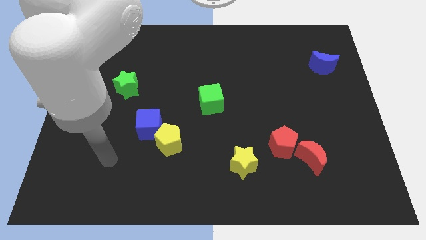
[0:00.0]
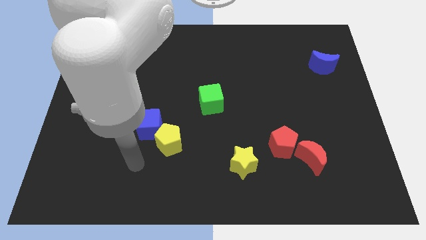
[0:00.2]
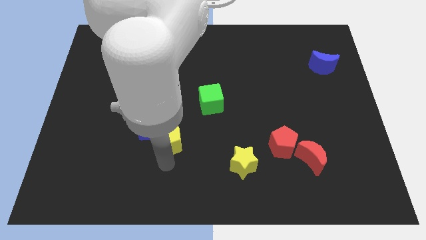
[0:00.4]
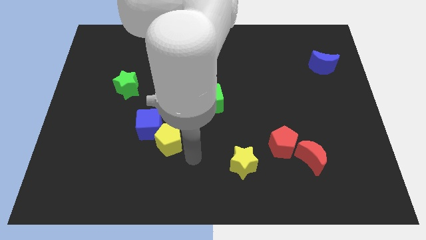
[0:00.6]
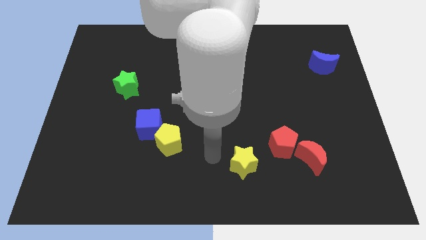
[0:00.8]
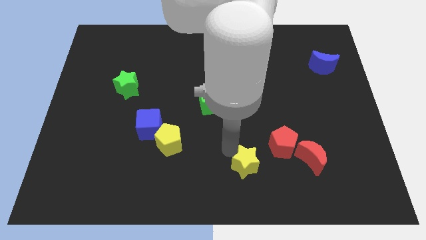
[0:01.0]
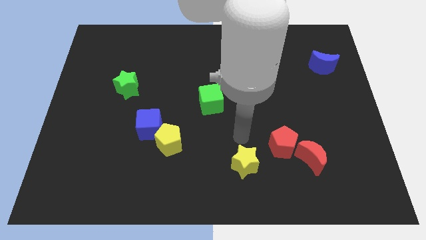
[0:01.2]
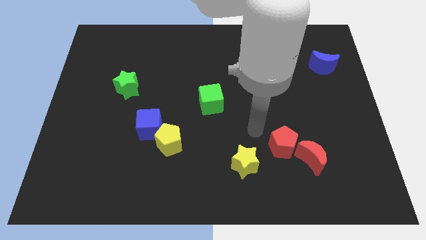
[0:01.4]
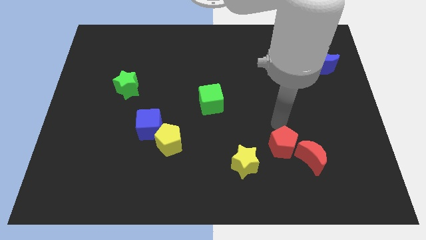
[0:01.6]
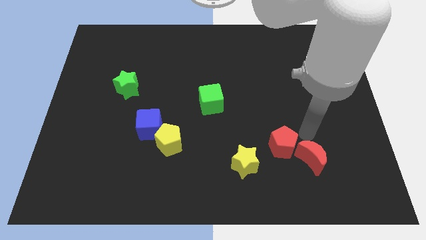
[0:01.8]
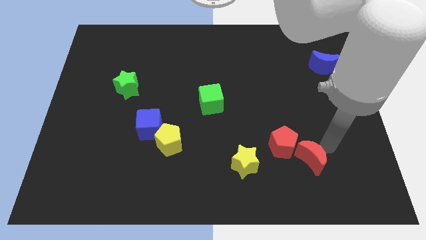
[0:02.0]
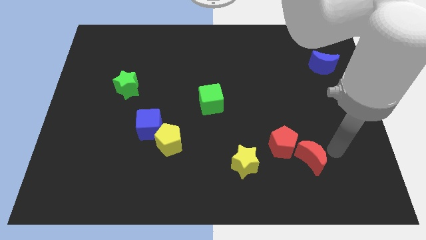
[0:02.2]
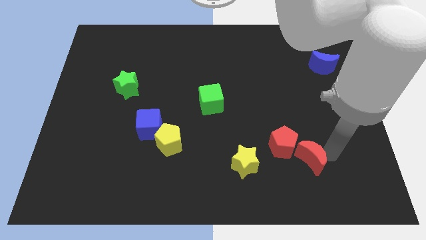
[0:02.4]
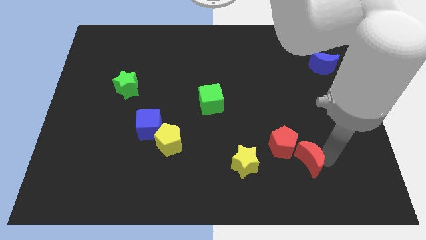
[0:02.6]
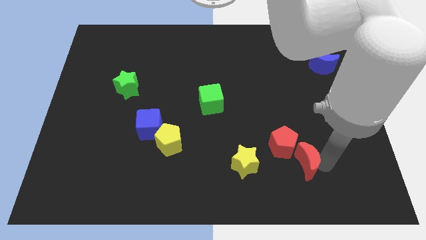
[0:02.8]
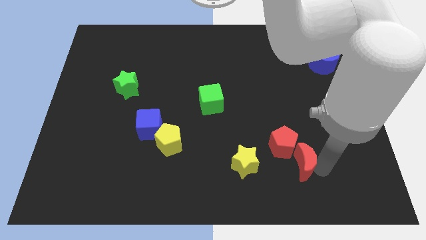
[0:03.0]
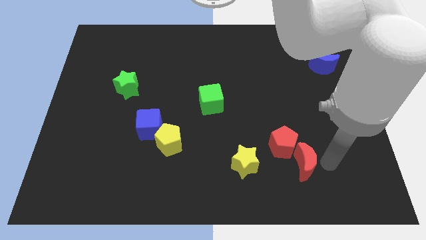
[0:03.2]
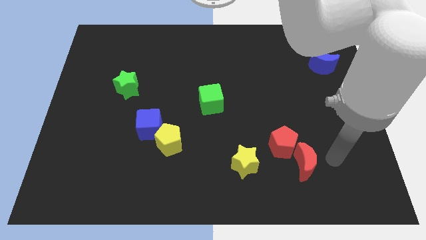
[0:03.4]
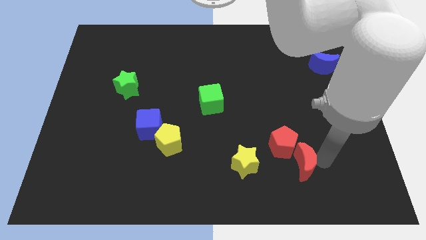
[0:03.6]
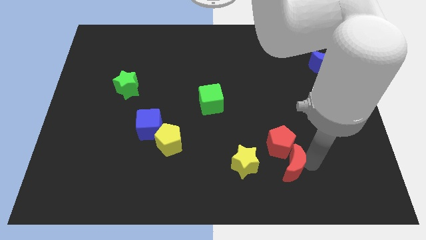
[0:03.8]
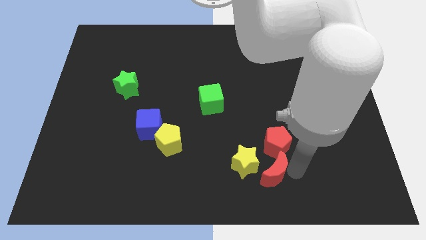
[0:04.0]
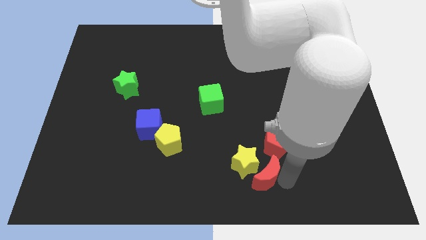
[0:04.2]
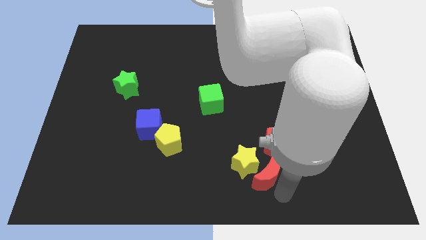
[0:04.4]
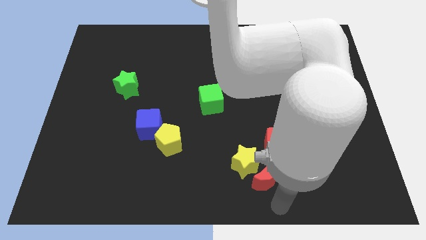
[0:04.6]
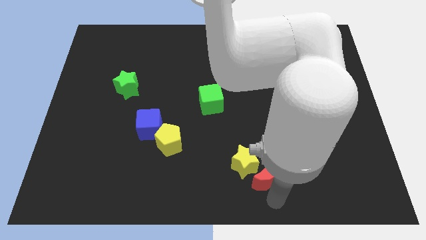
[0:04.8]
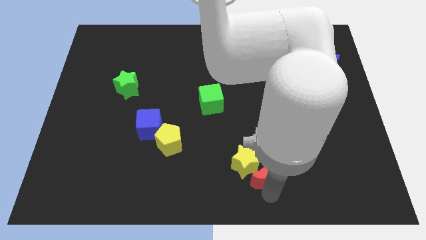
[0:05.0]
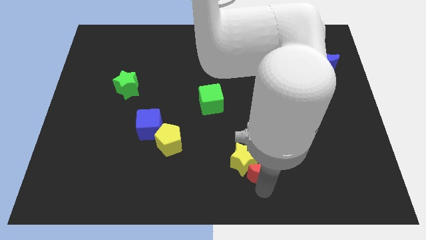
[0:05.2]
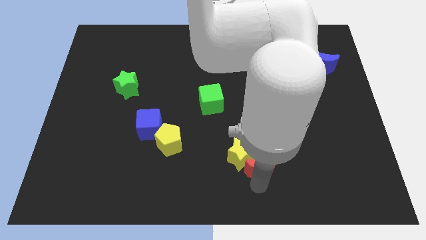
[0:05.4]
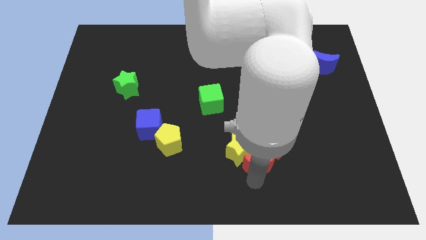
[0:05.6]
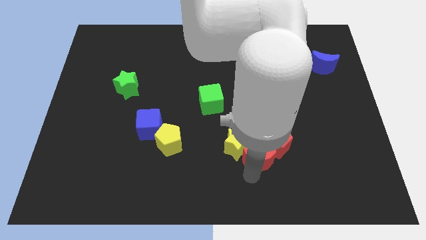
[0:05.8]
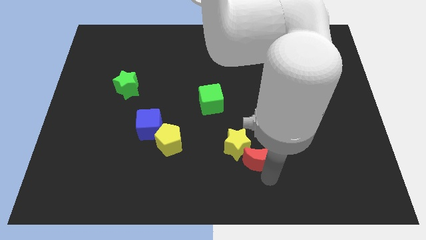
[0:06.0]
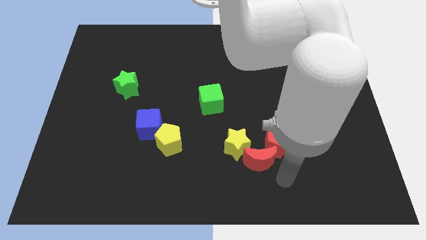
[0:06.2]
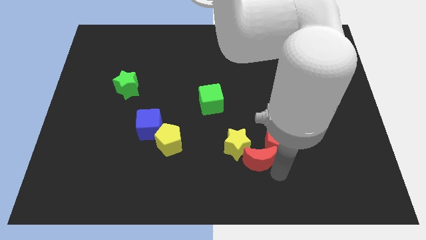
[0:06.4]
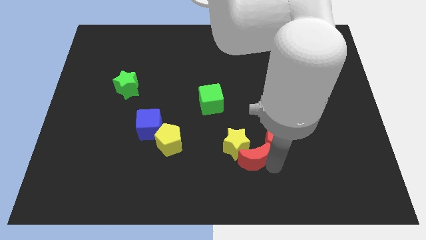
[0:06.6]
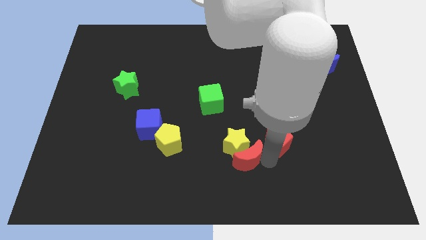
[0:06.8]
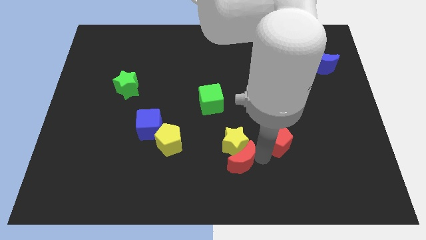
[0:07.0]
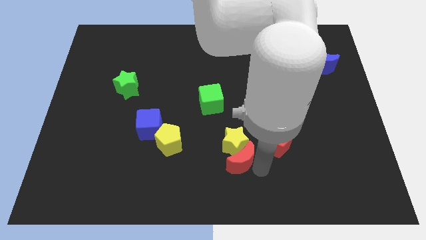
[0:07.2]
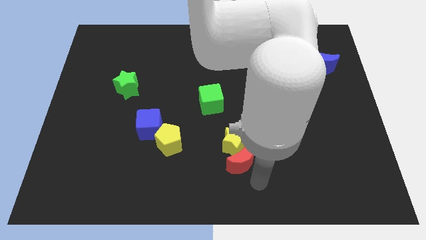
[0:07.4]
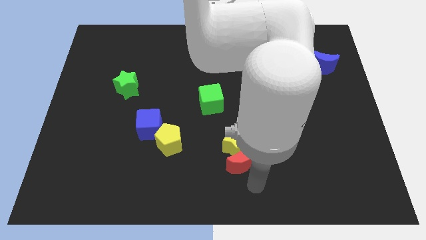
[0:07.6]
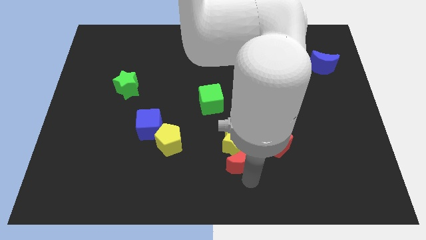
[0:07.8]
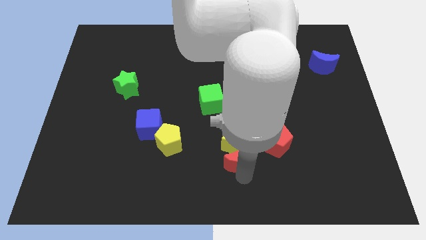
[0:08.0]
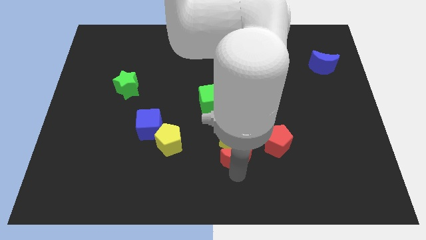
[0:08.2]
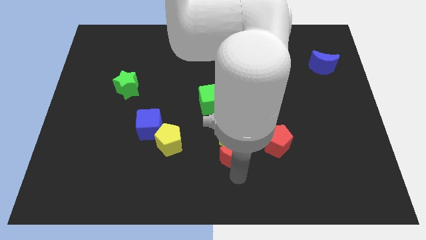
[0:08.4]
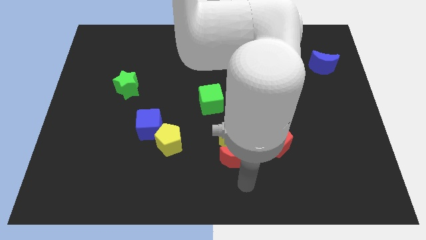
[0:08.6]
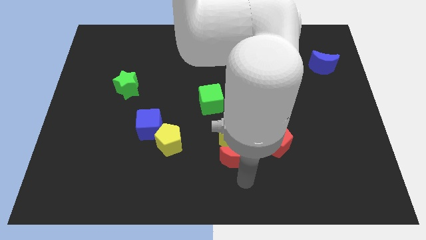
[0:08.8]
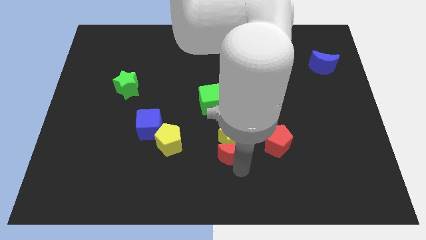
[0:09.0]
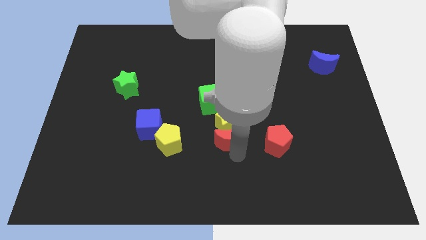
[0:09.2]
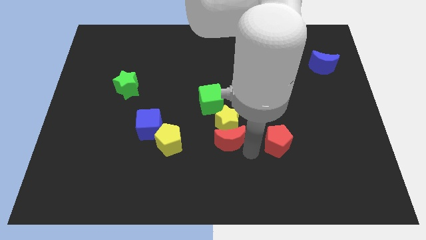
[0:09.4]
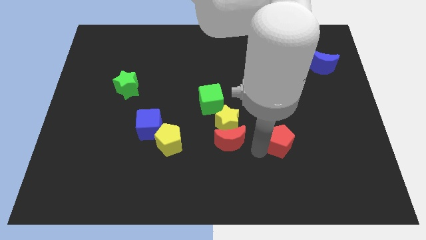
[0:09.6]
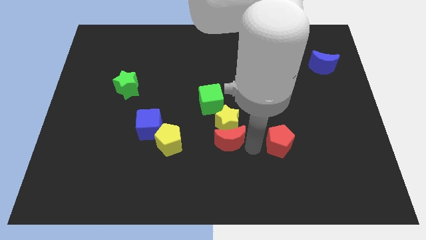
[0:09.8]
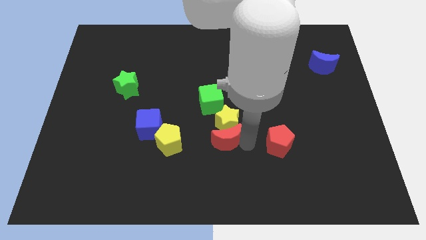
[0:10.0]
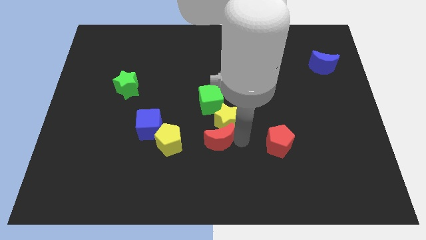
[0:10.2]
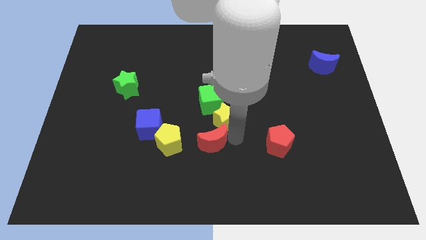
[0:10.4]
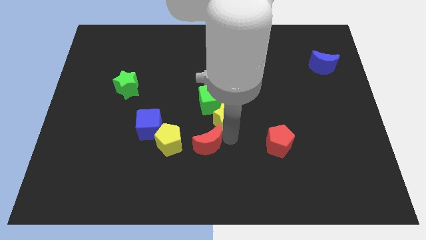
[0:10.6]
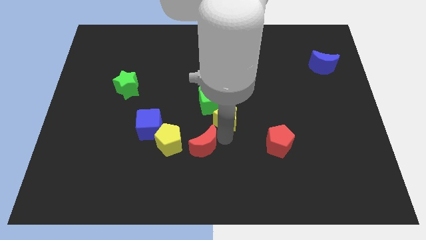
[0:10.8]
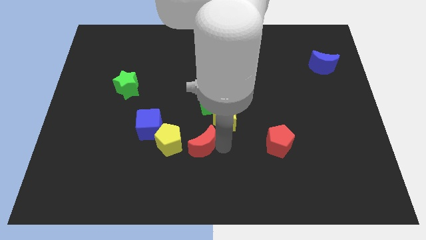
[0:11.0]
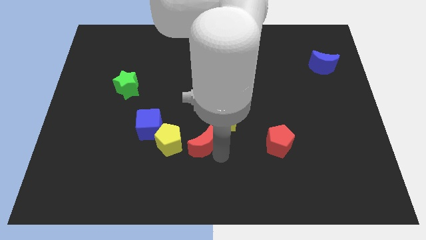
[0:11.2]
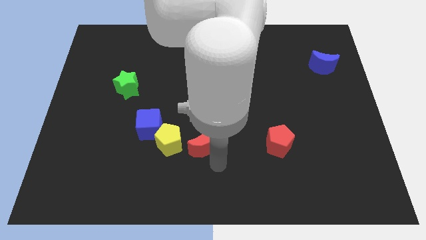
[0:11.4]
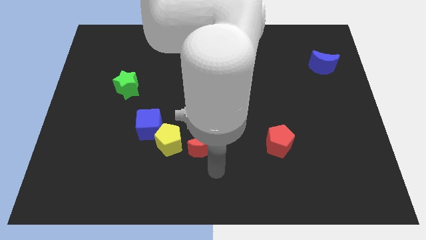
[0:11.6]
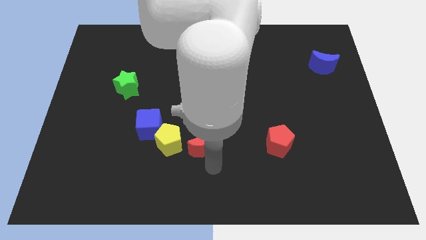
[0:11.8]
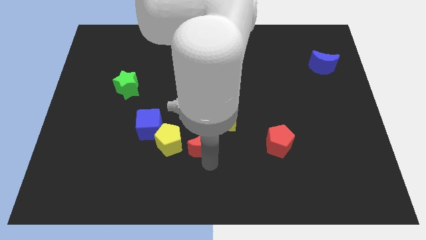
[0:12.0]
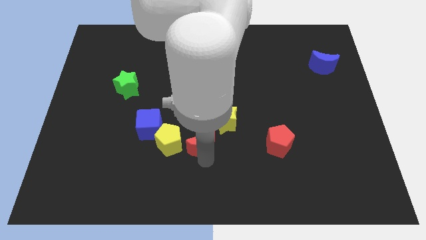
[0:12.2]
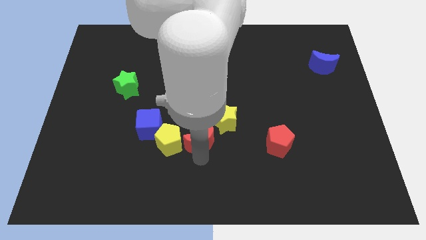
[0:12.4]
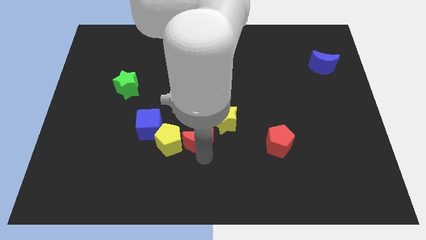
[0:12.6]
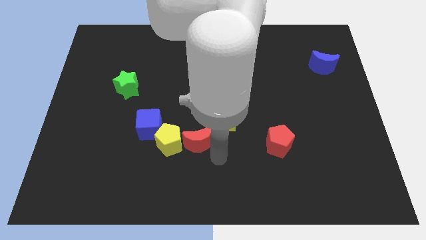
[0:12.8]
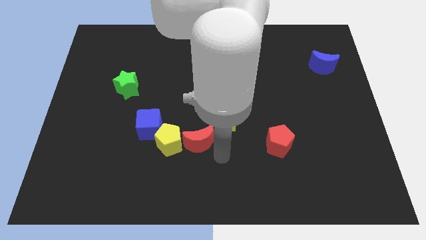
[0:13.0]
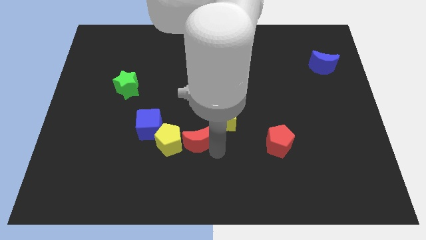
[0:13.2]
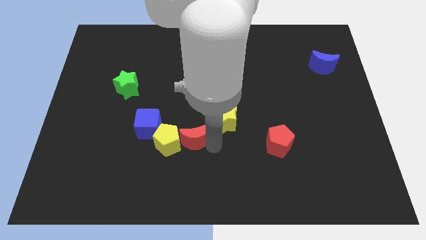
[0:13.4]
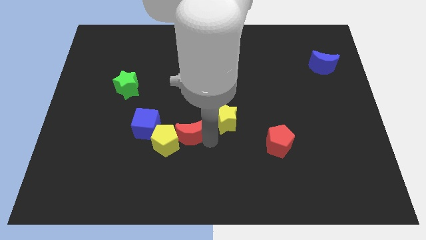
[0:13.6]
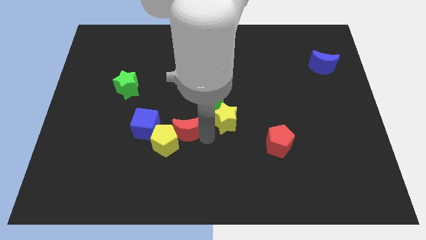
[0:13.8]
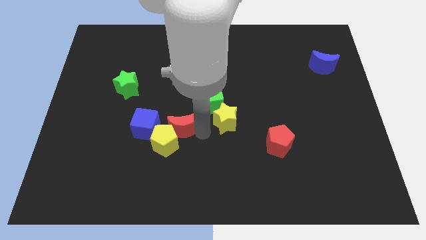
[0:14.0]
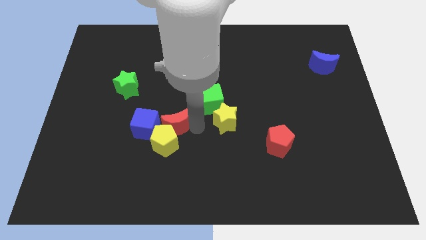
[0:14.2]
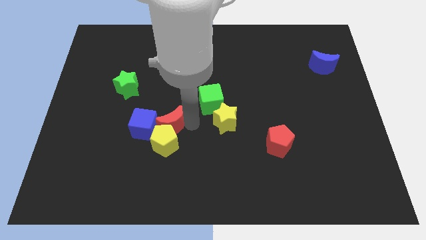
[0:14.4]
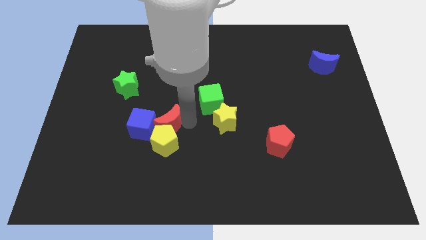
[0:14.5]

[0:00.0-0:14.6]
slide the red moon next to the blue cube

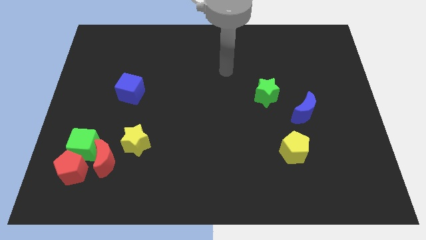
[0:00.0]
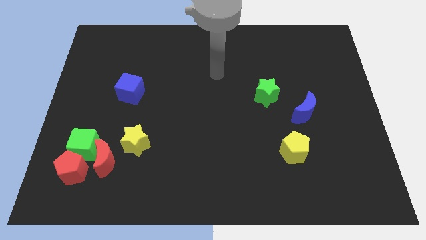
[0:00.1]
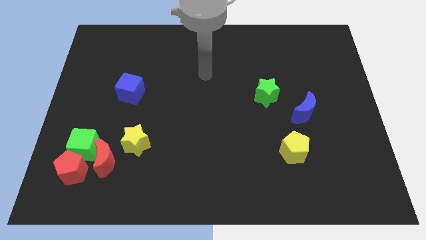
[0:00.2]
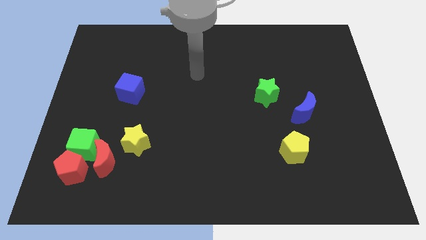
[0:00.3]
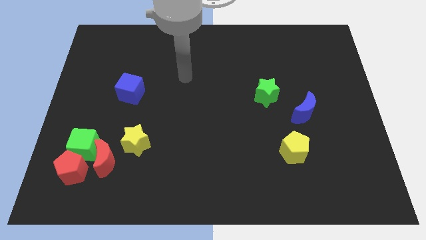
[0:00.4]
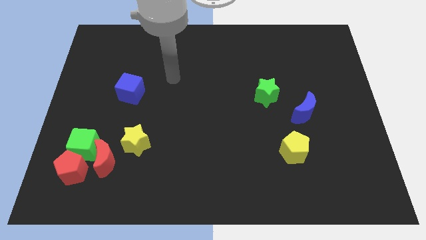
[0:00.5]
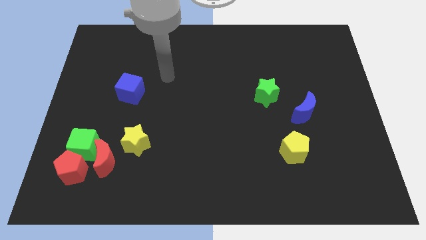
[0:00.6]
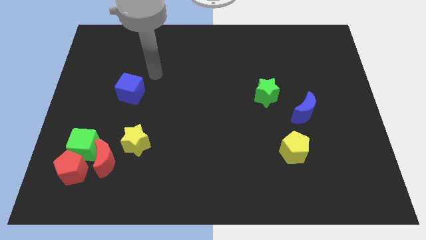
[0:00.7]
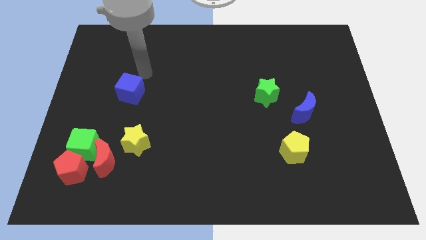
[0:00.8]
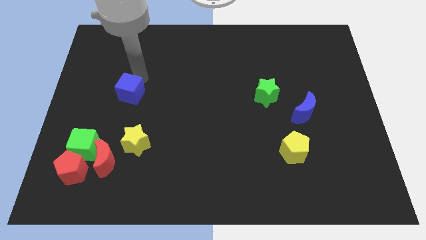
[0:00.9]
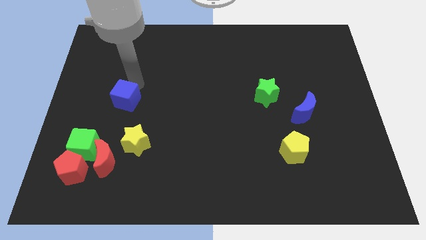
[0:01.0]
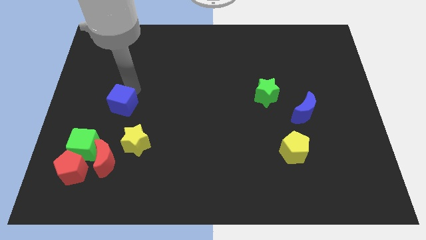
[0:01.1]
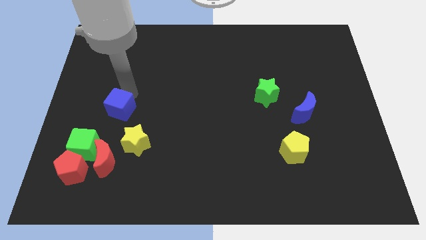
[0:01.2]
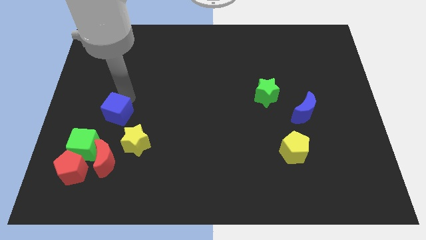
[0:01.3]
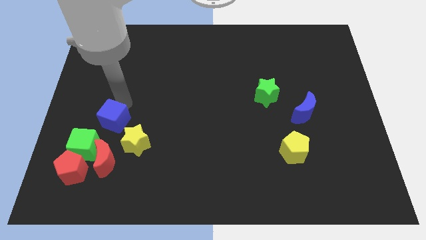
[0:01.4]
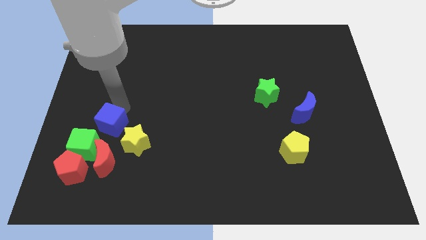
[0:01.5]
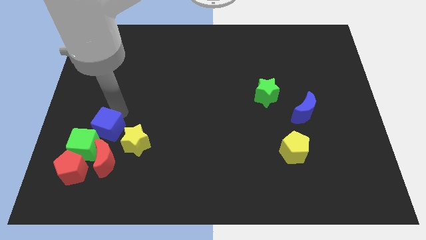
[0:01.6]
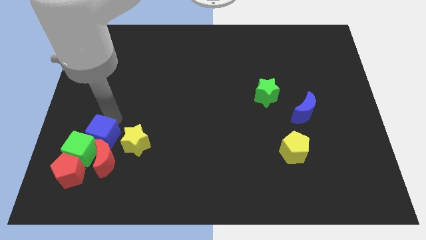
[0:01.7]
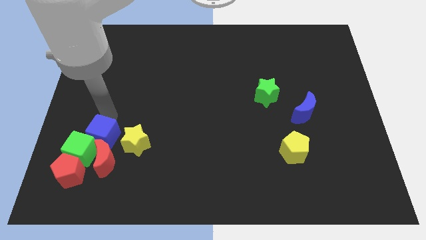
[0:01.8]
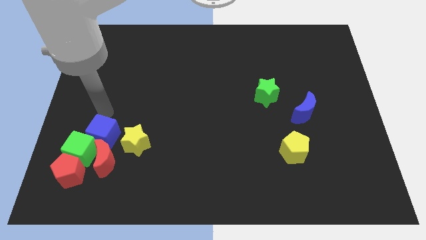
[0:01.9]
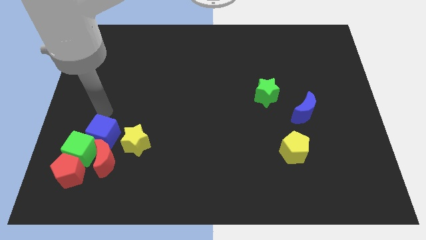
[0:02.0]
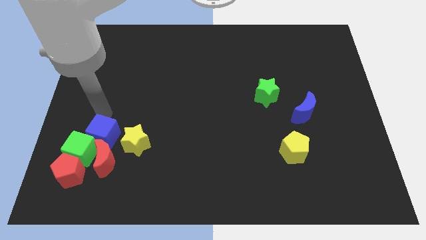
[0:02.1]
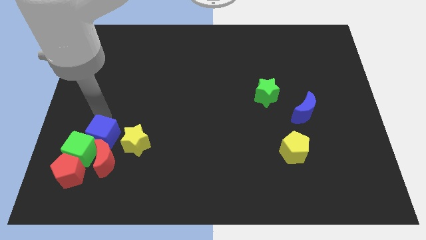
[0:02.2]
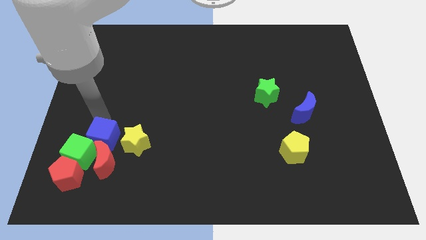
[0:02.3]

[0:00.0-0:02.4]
push the blue cube next to the red moon
